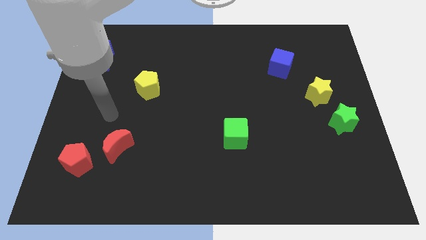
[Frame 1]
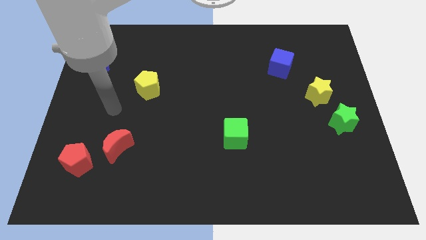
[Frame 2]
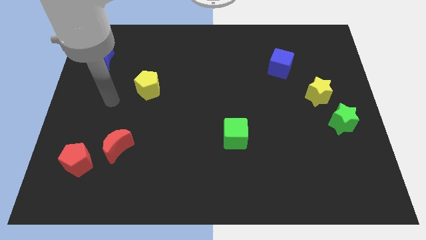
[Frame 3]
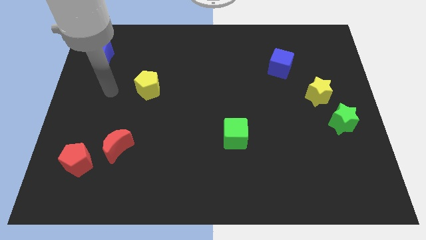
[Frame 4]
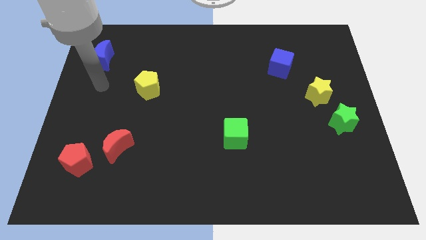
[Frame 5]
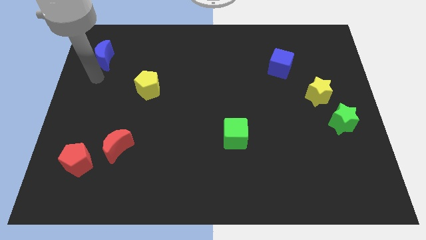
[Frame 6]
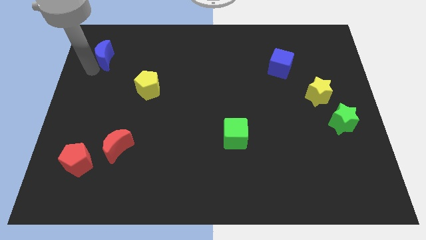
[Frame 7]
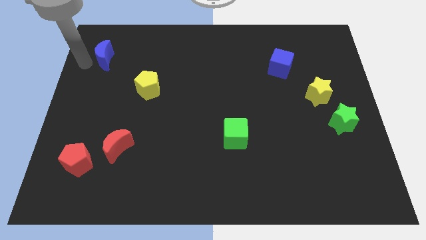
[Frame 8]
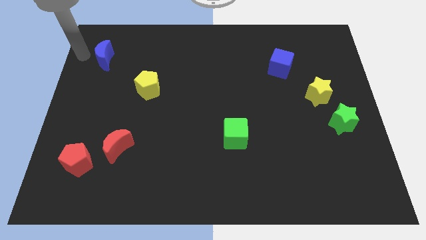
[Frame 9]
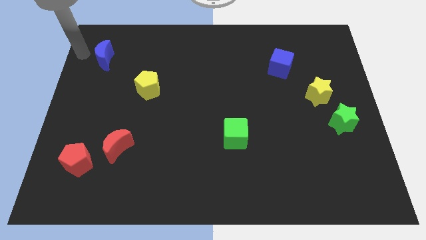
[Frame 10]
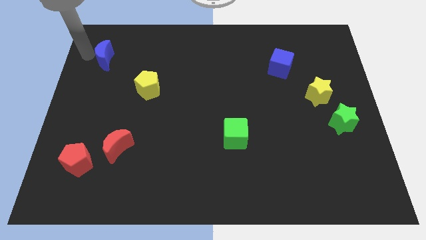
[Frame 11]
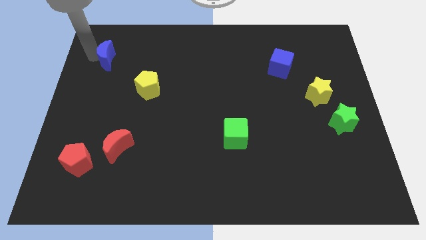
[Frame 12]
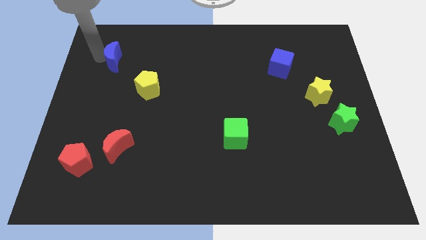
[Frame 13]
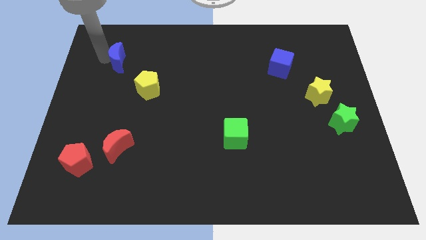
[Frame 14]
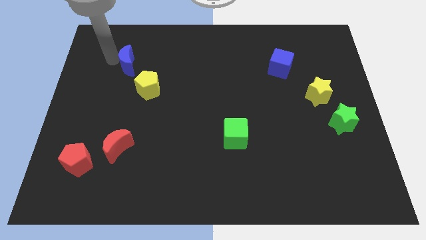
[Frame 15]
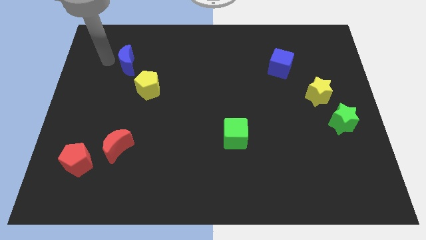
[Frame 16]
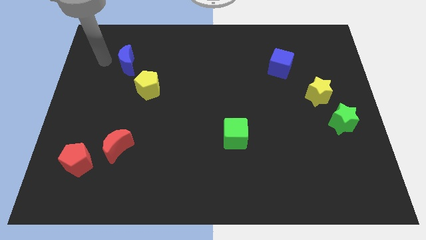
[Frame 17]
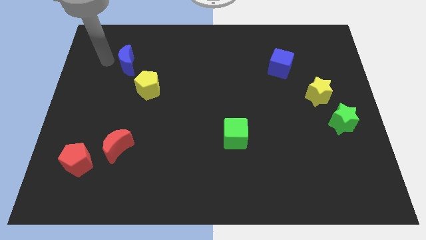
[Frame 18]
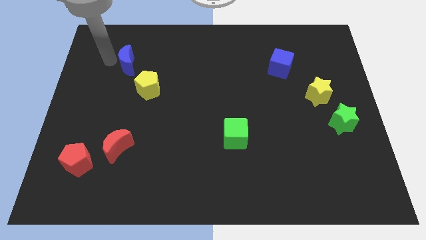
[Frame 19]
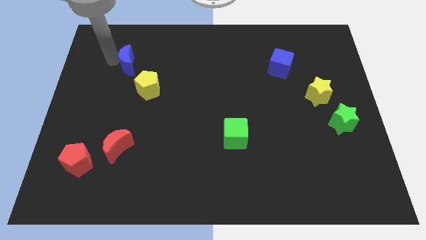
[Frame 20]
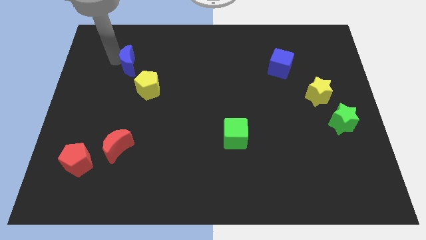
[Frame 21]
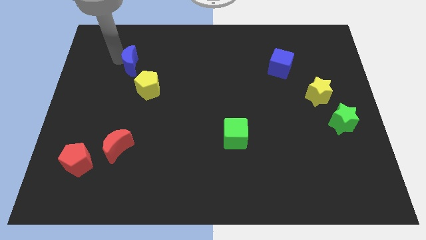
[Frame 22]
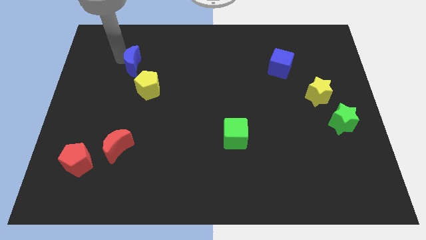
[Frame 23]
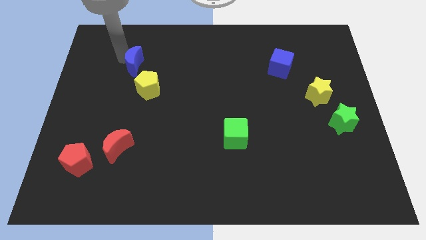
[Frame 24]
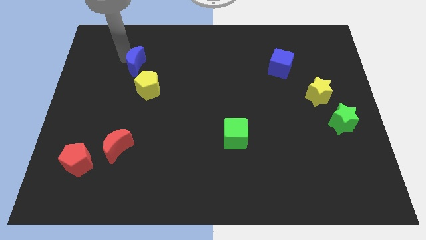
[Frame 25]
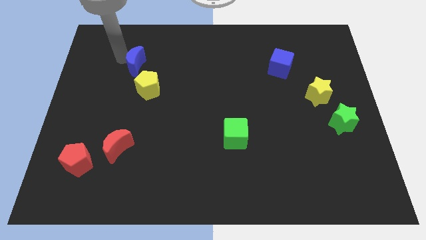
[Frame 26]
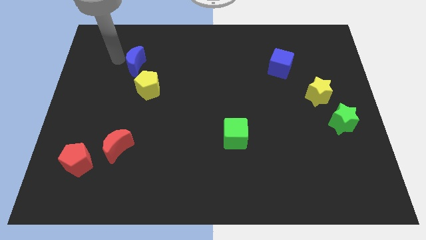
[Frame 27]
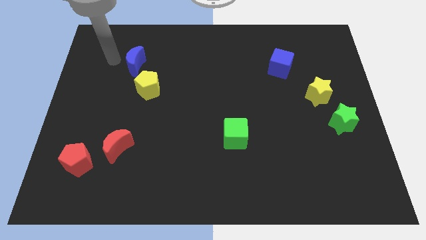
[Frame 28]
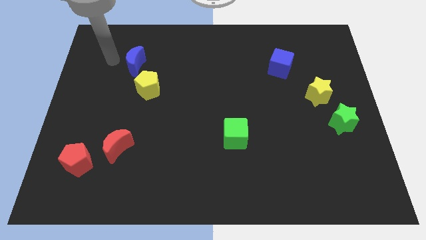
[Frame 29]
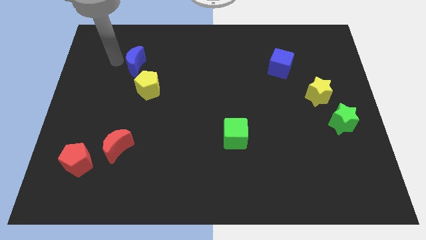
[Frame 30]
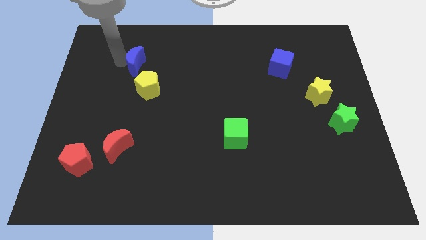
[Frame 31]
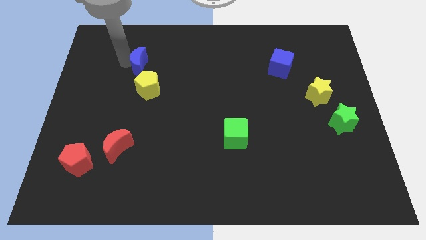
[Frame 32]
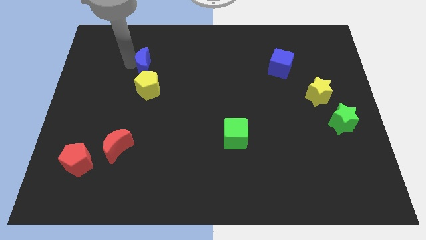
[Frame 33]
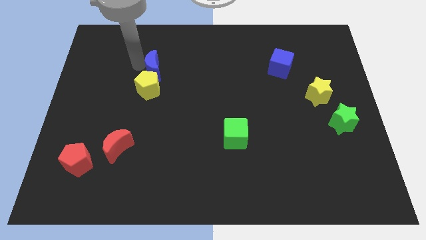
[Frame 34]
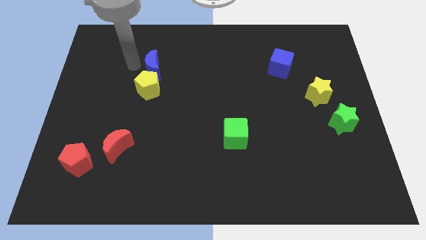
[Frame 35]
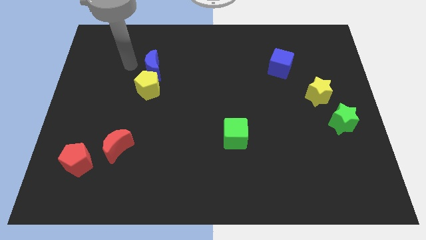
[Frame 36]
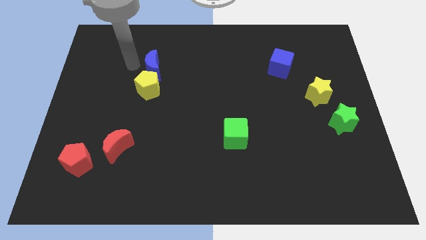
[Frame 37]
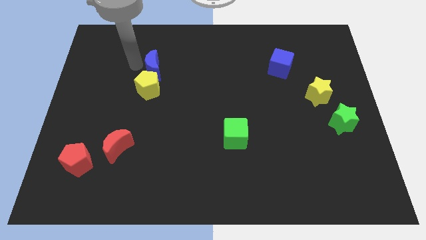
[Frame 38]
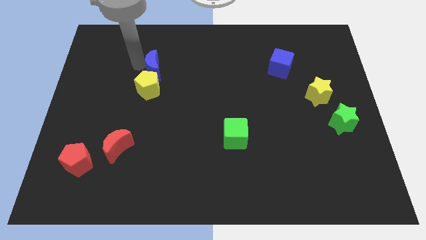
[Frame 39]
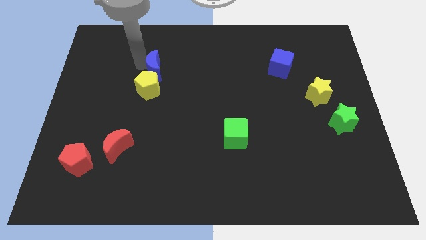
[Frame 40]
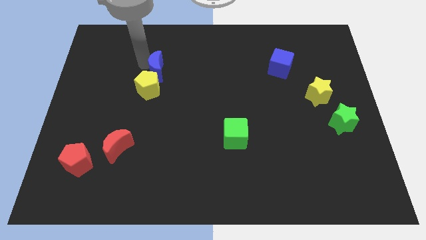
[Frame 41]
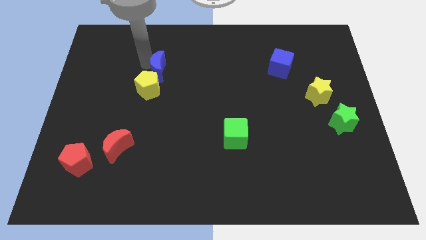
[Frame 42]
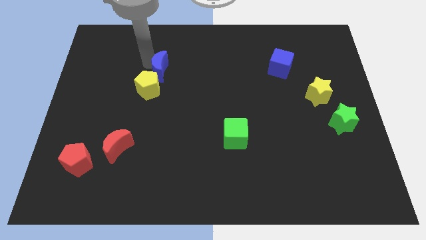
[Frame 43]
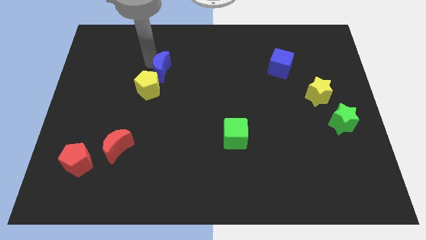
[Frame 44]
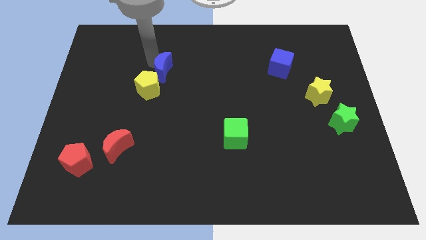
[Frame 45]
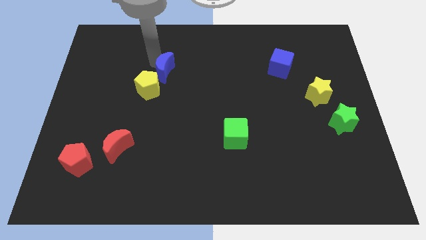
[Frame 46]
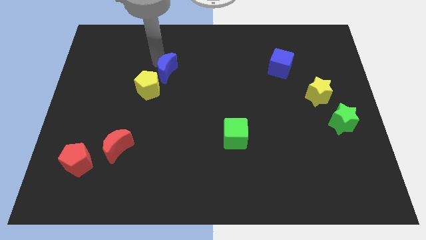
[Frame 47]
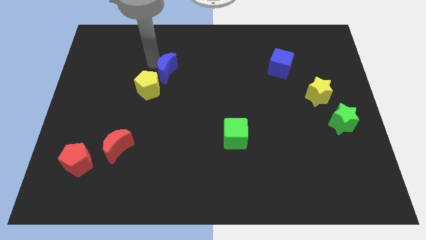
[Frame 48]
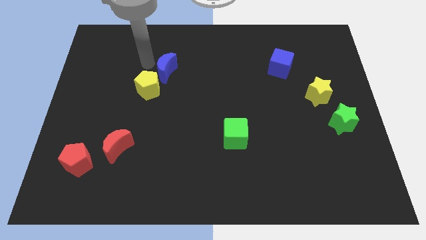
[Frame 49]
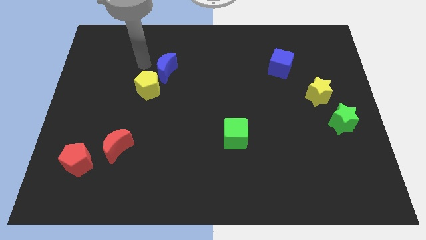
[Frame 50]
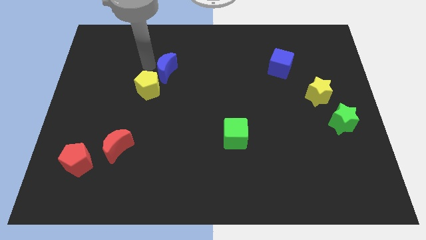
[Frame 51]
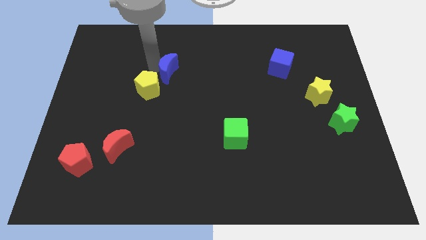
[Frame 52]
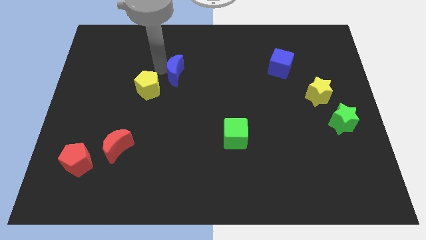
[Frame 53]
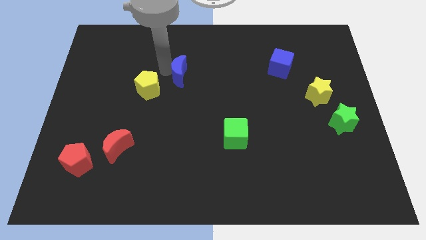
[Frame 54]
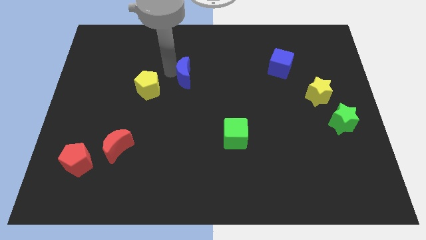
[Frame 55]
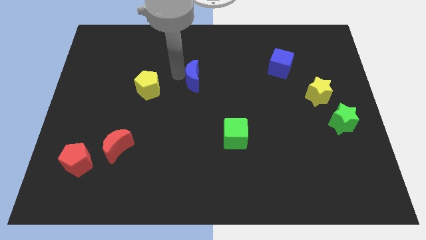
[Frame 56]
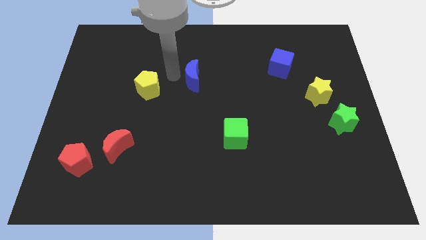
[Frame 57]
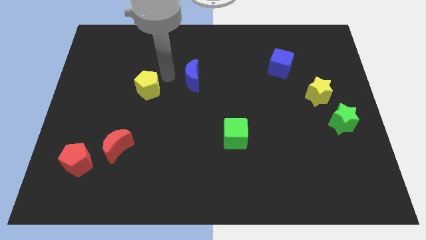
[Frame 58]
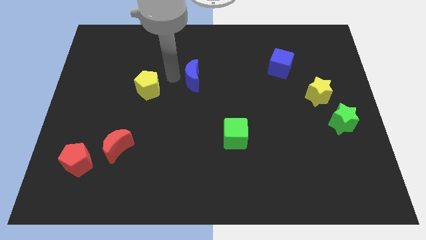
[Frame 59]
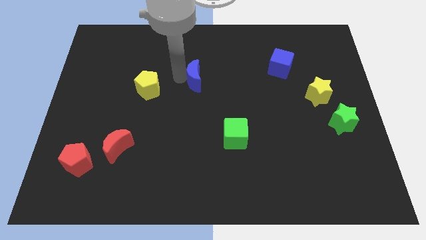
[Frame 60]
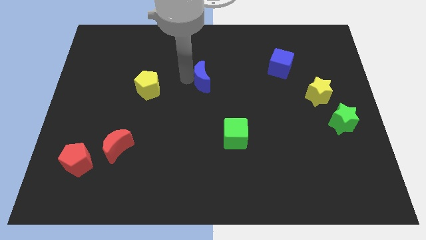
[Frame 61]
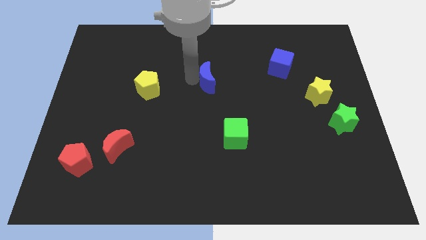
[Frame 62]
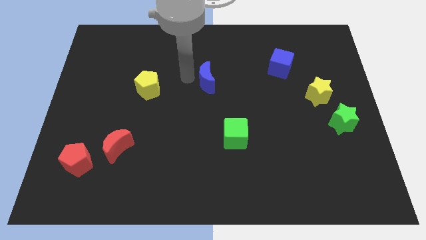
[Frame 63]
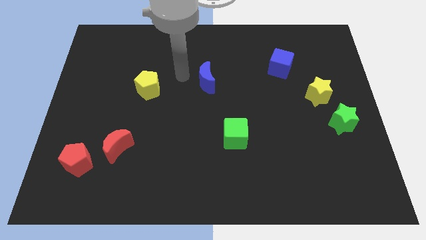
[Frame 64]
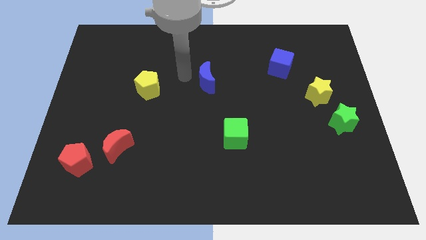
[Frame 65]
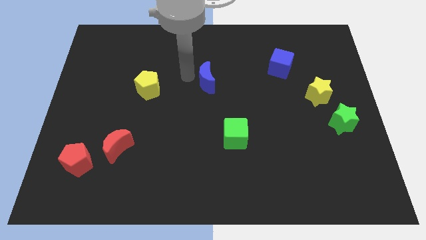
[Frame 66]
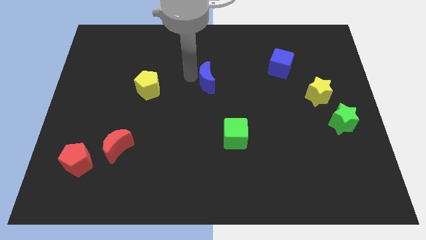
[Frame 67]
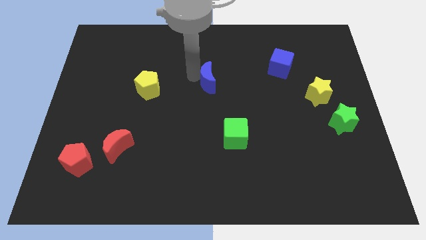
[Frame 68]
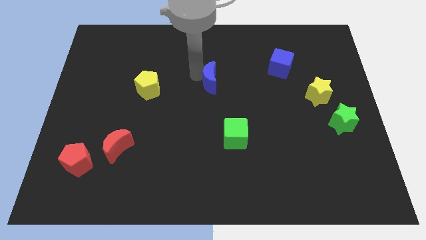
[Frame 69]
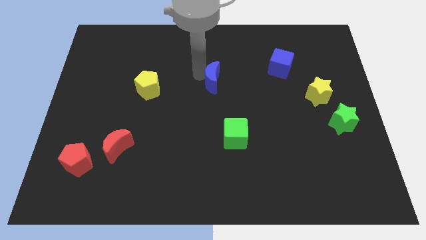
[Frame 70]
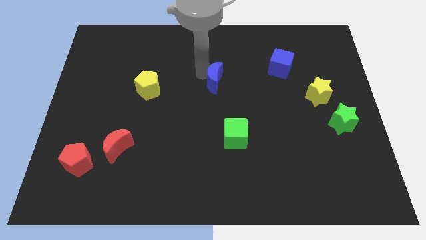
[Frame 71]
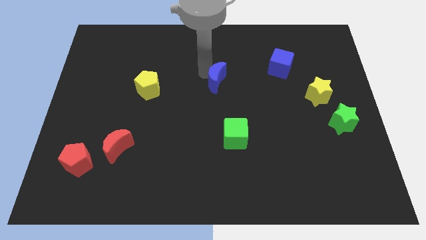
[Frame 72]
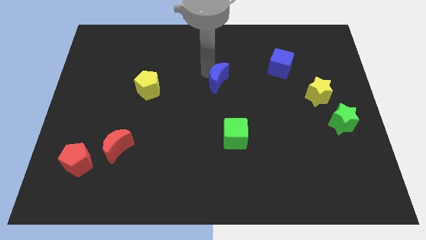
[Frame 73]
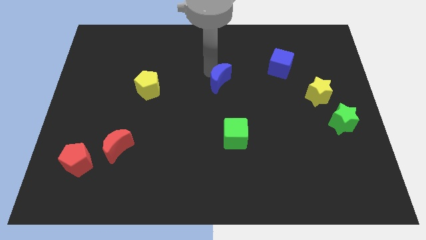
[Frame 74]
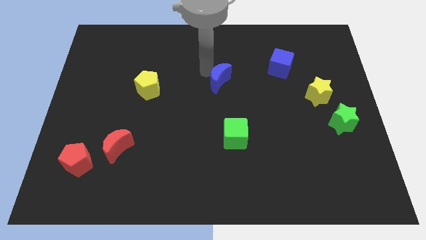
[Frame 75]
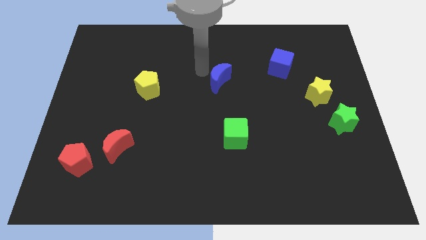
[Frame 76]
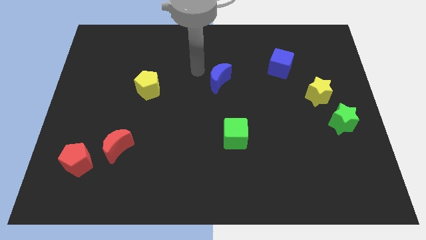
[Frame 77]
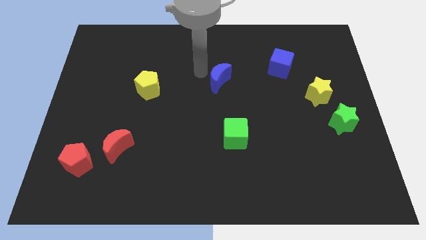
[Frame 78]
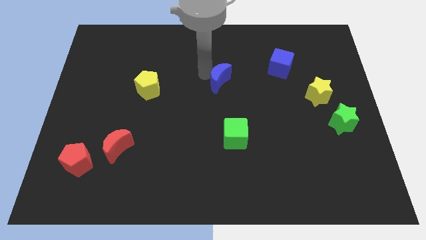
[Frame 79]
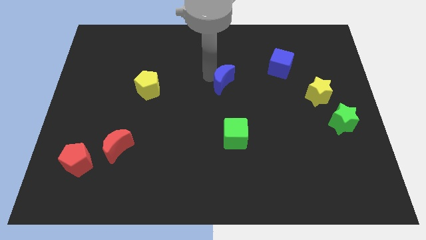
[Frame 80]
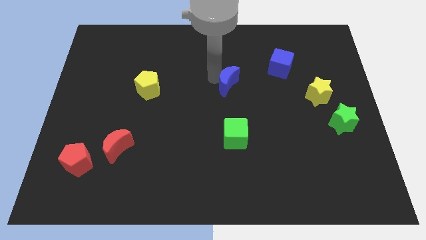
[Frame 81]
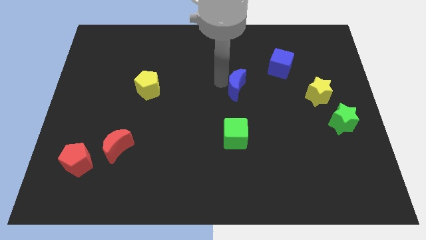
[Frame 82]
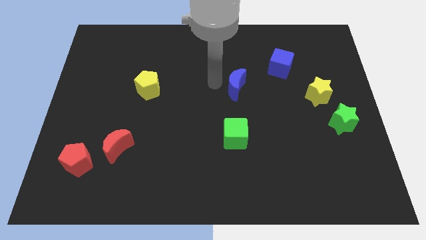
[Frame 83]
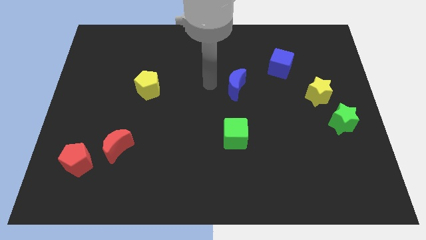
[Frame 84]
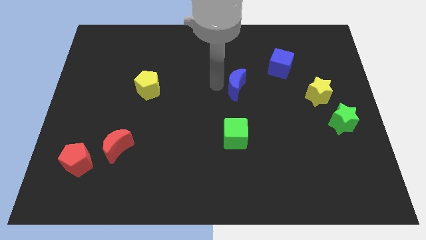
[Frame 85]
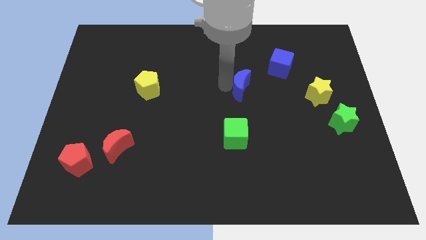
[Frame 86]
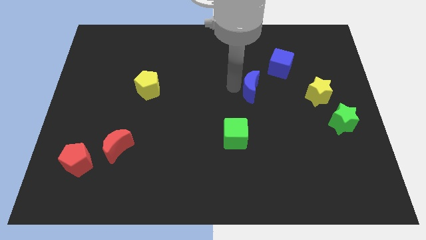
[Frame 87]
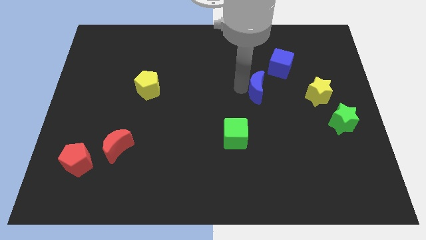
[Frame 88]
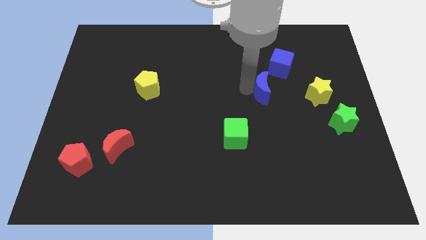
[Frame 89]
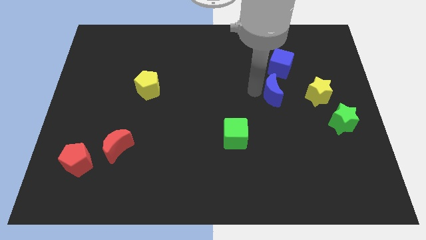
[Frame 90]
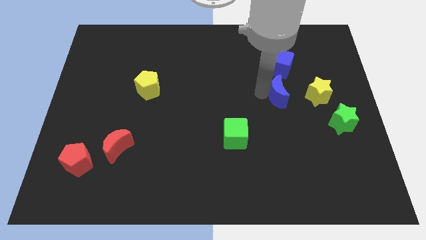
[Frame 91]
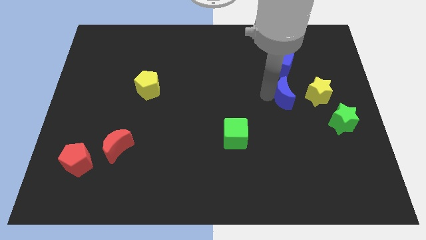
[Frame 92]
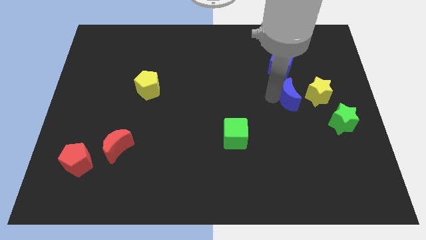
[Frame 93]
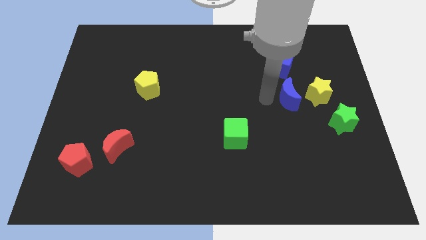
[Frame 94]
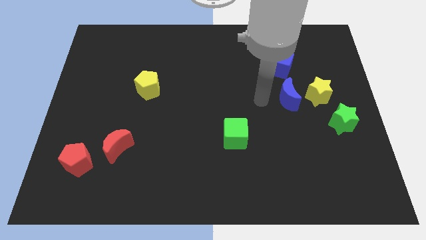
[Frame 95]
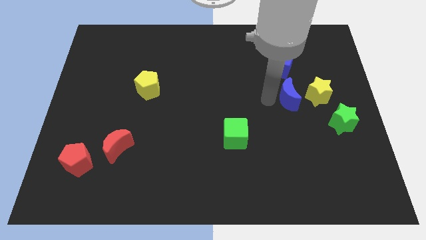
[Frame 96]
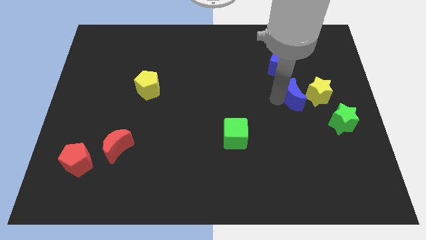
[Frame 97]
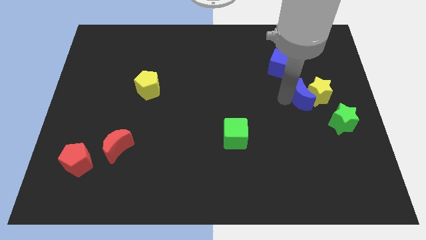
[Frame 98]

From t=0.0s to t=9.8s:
put the blue moon towards the yellow star
